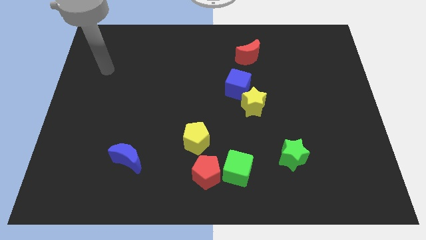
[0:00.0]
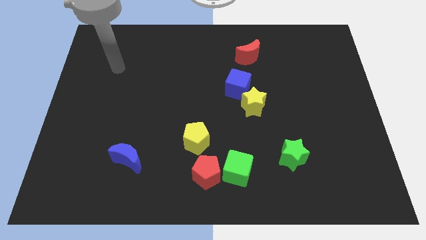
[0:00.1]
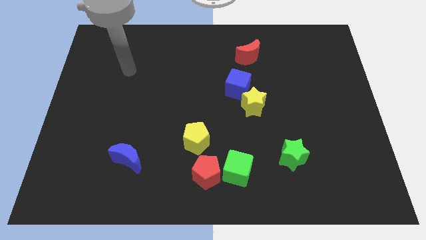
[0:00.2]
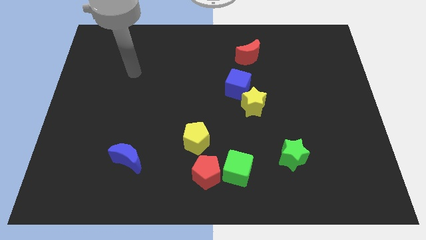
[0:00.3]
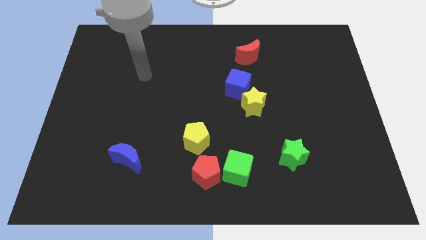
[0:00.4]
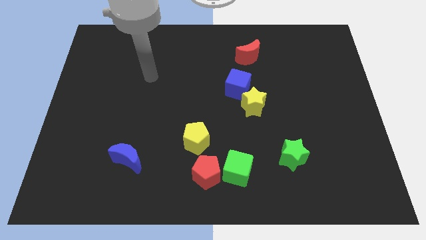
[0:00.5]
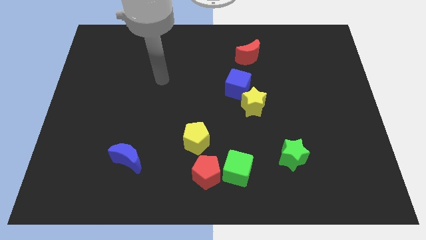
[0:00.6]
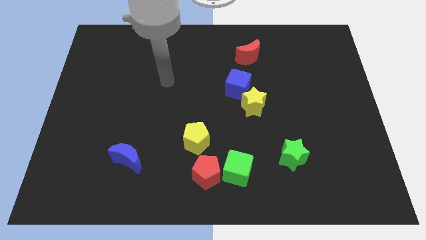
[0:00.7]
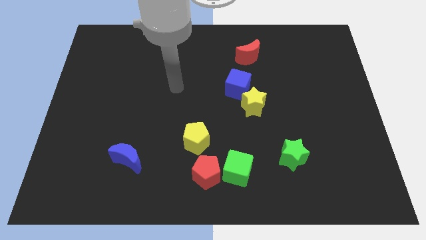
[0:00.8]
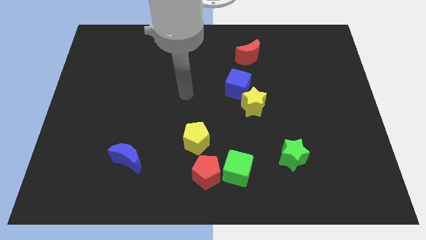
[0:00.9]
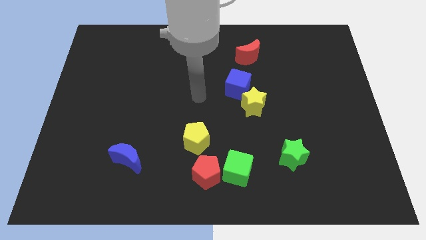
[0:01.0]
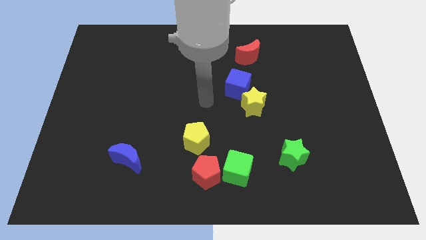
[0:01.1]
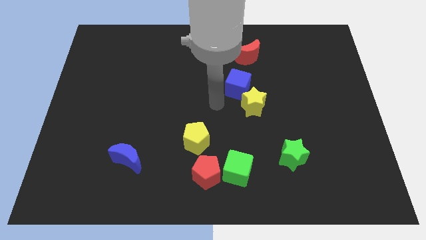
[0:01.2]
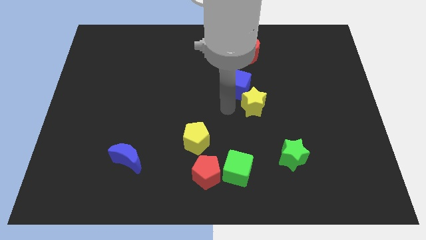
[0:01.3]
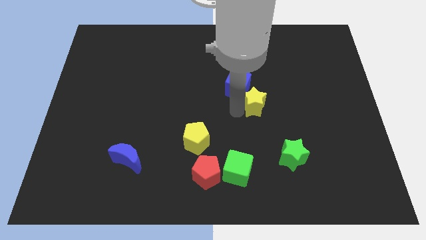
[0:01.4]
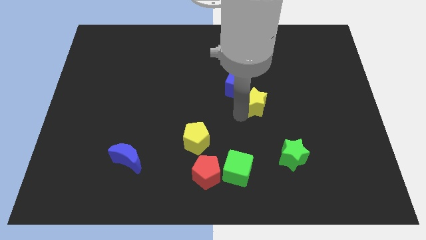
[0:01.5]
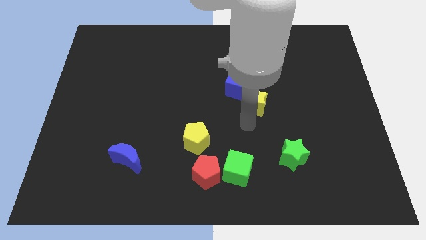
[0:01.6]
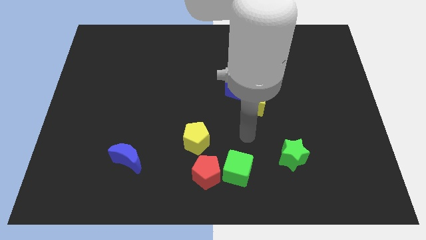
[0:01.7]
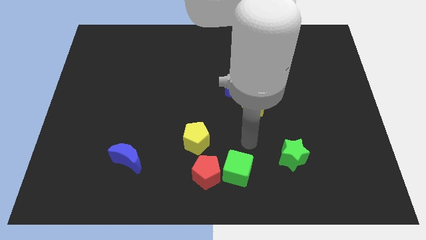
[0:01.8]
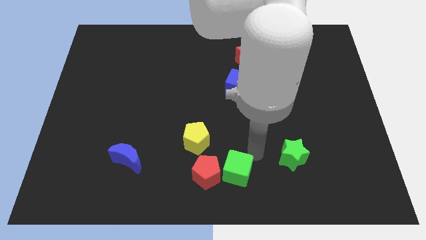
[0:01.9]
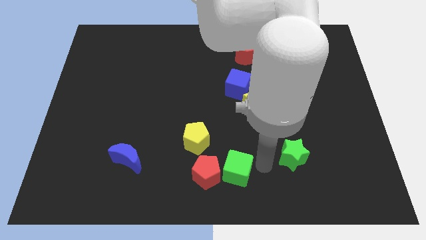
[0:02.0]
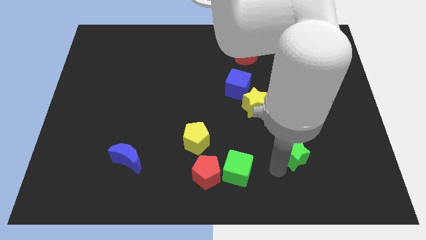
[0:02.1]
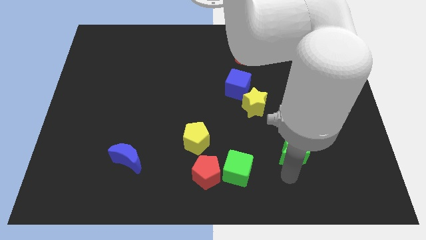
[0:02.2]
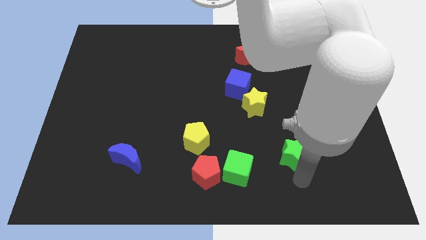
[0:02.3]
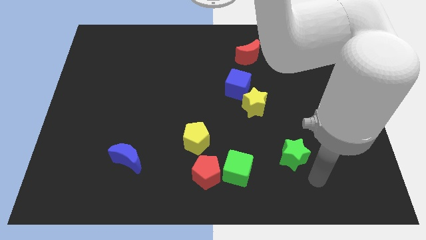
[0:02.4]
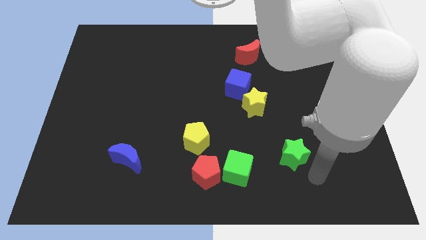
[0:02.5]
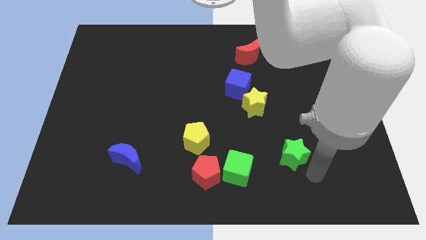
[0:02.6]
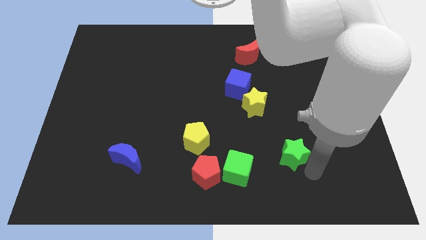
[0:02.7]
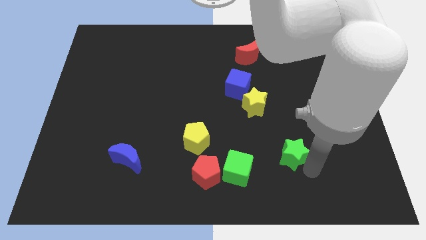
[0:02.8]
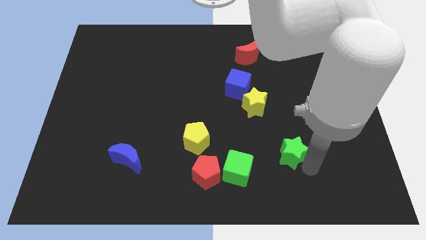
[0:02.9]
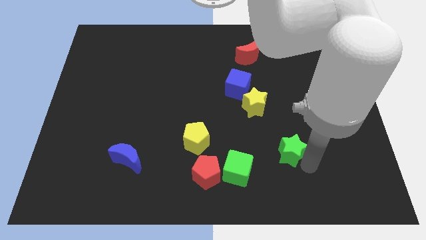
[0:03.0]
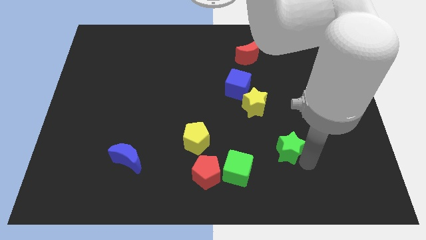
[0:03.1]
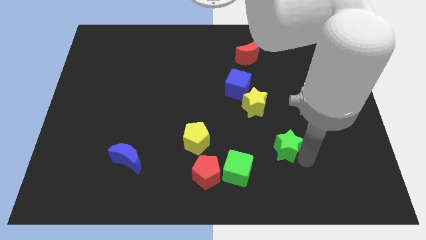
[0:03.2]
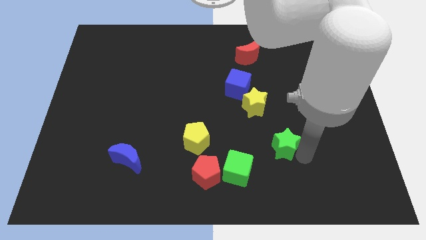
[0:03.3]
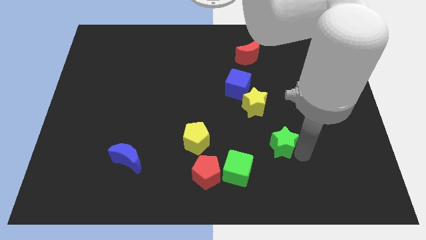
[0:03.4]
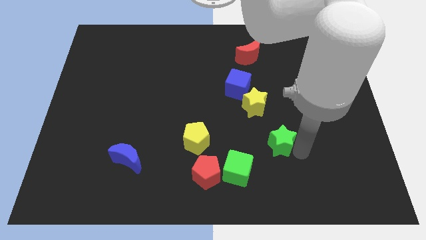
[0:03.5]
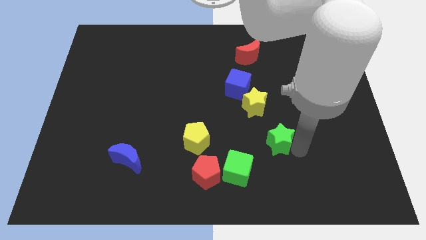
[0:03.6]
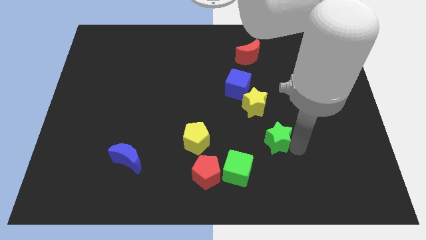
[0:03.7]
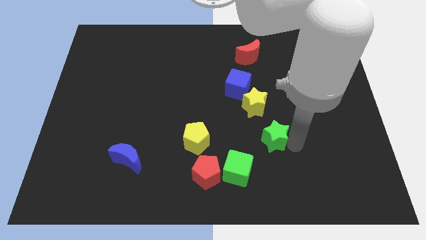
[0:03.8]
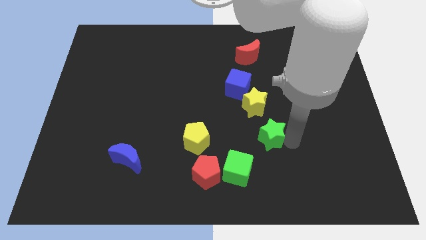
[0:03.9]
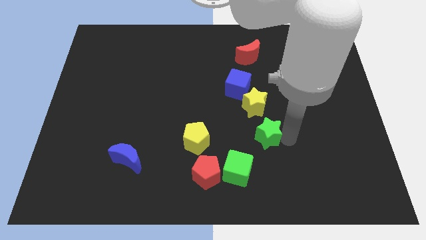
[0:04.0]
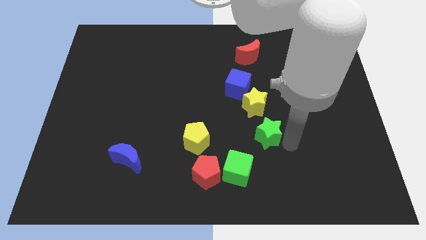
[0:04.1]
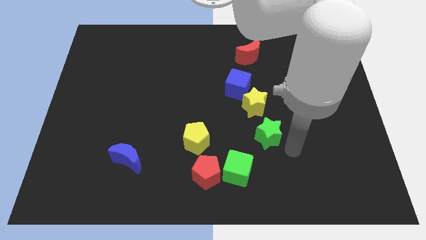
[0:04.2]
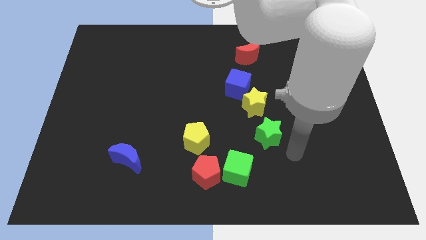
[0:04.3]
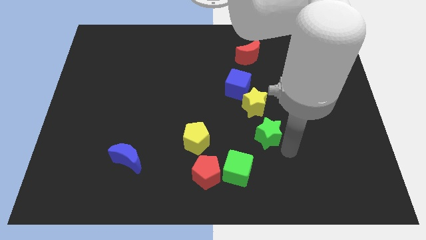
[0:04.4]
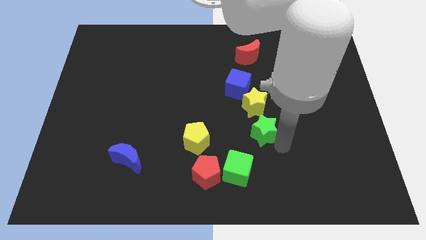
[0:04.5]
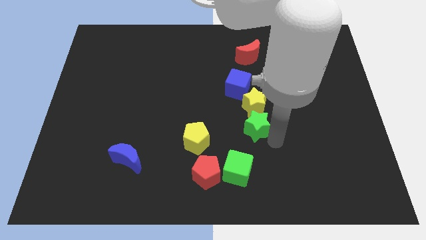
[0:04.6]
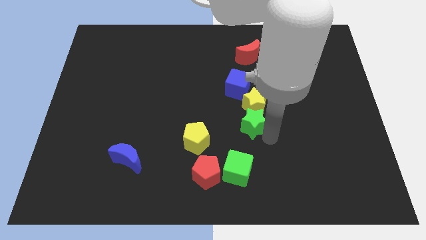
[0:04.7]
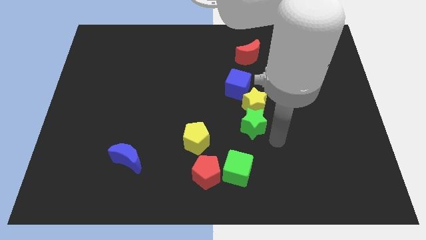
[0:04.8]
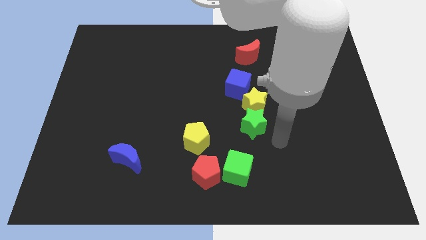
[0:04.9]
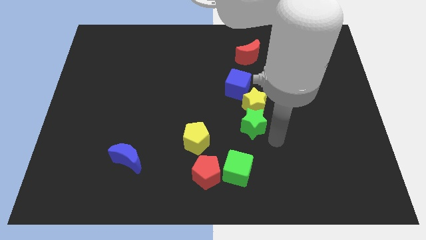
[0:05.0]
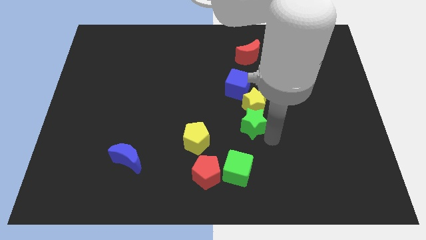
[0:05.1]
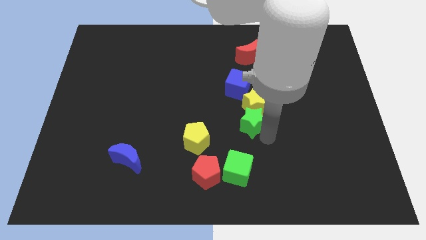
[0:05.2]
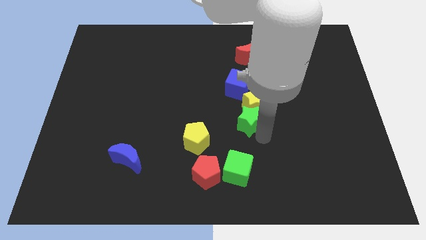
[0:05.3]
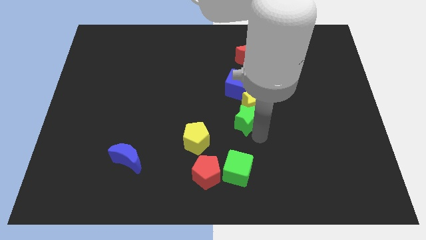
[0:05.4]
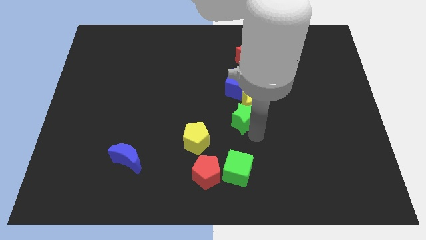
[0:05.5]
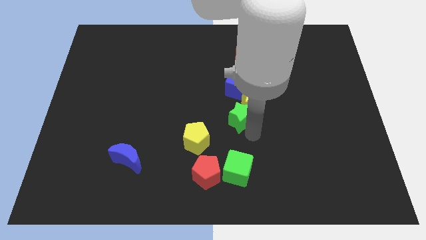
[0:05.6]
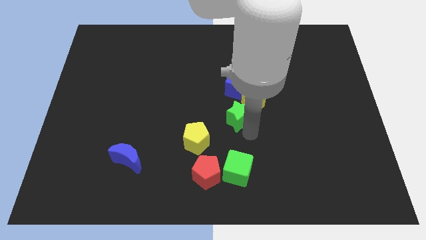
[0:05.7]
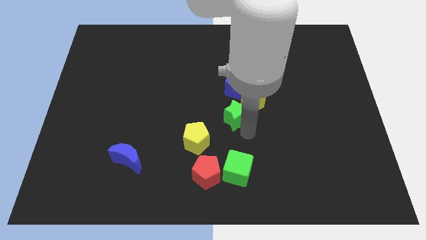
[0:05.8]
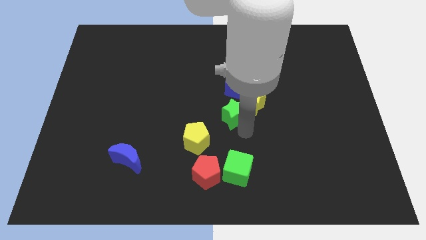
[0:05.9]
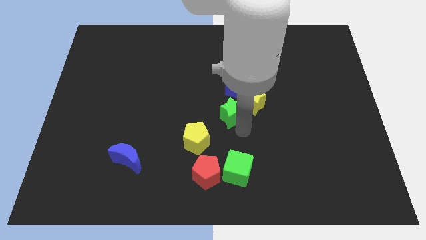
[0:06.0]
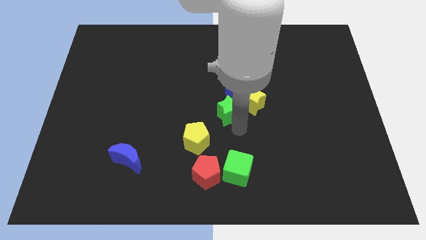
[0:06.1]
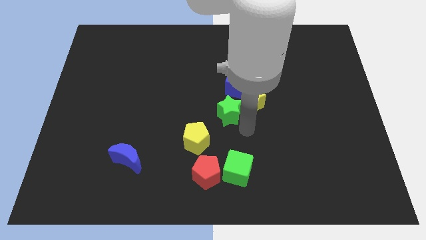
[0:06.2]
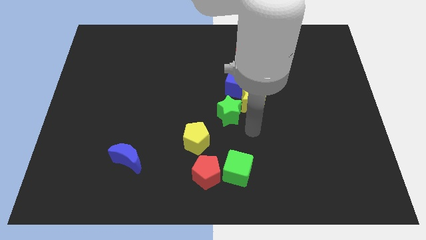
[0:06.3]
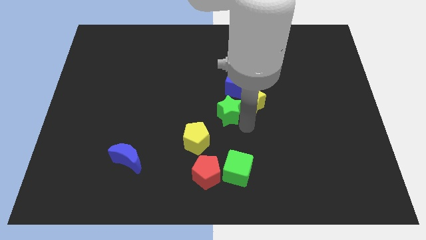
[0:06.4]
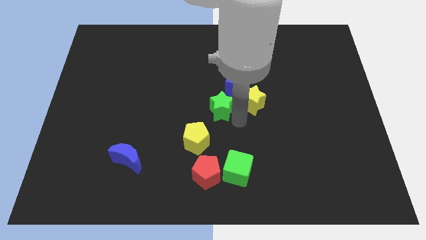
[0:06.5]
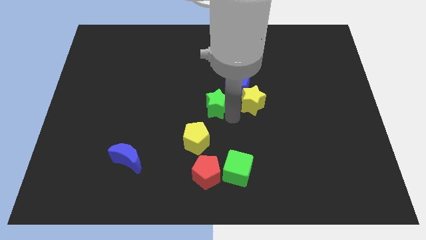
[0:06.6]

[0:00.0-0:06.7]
push the green star up and left

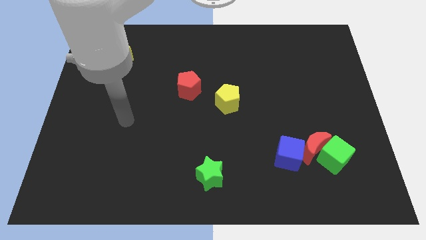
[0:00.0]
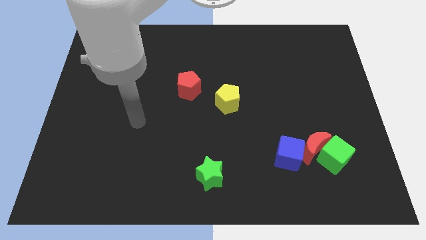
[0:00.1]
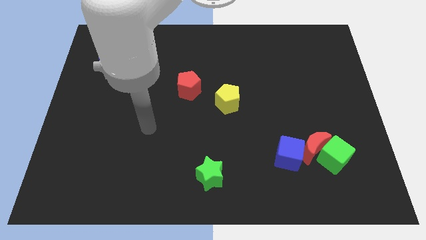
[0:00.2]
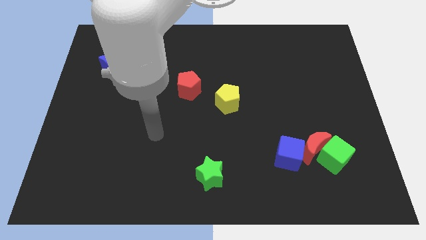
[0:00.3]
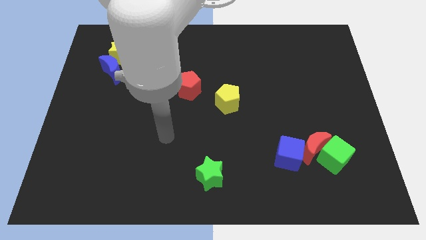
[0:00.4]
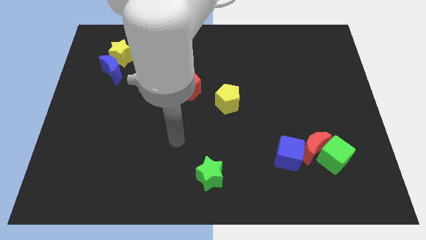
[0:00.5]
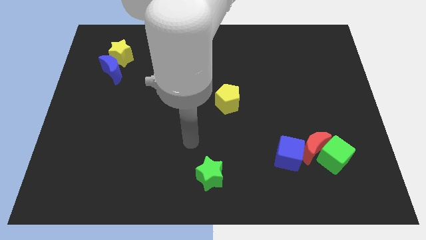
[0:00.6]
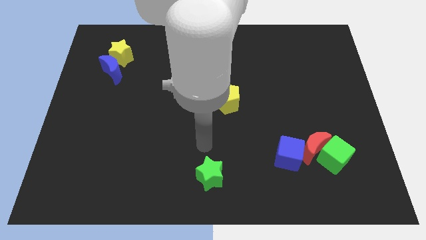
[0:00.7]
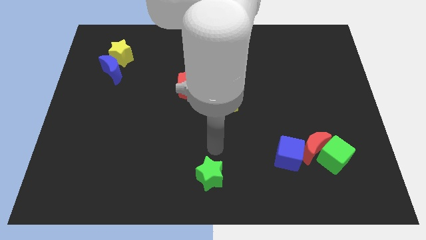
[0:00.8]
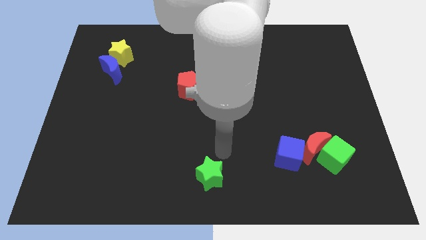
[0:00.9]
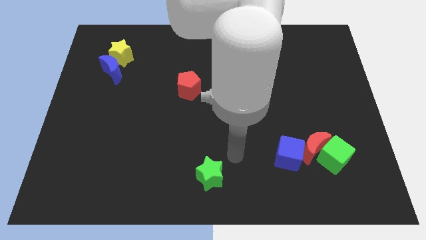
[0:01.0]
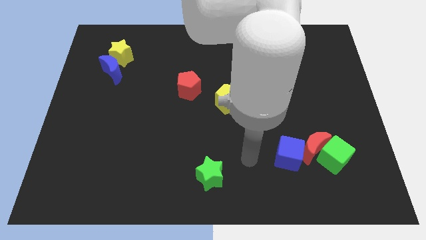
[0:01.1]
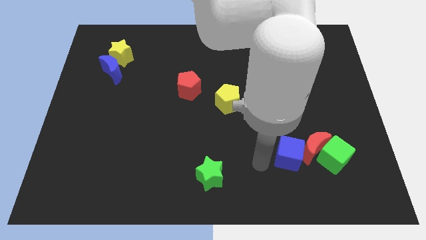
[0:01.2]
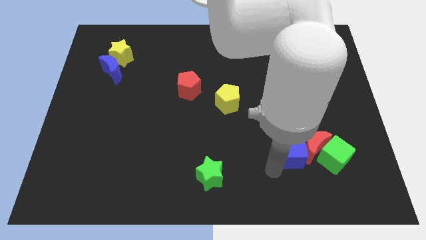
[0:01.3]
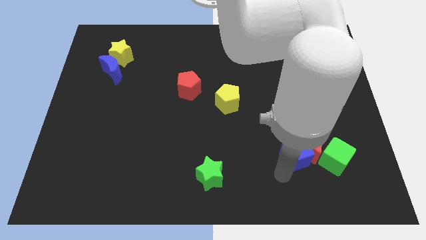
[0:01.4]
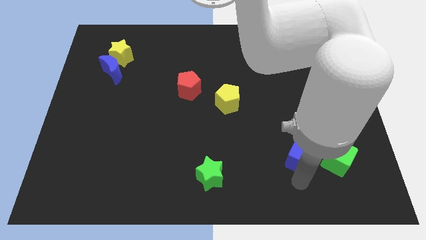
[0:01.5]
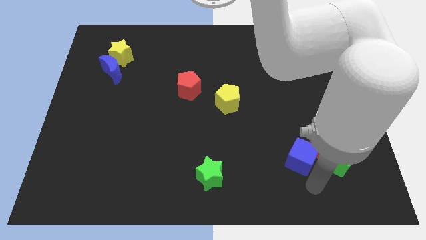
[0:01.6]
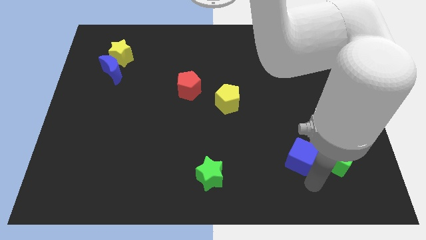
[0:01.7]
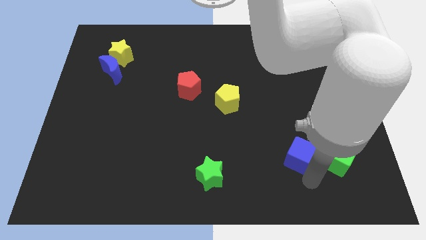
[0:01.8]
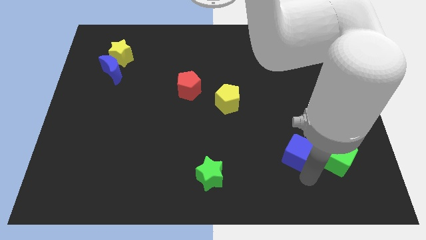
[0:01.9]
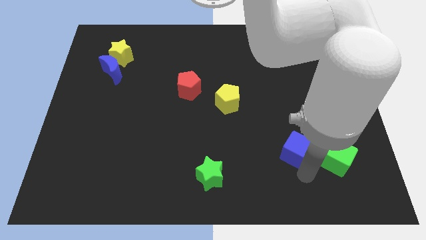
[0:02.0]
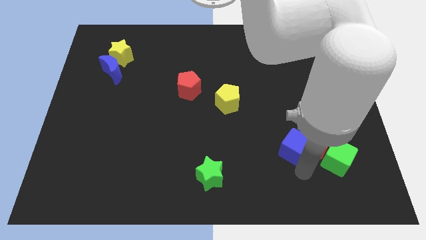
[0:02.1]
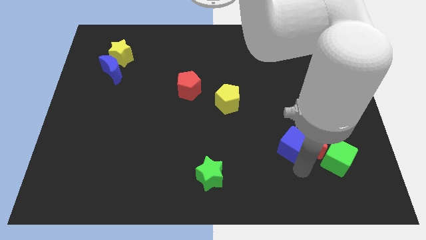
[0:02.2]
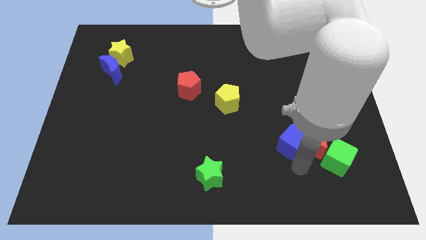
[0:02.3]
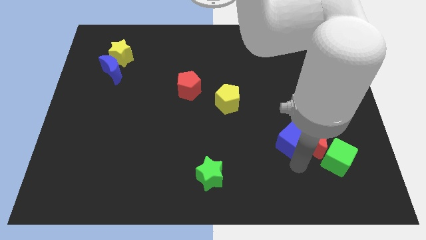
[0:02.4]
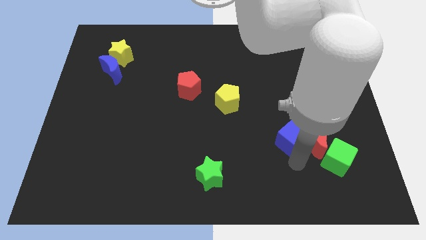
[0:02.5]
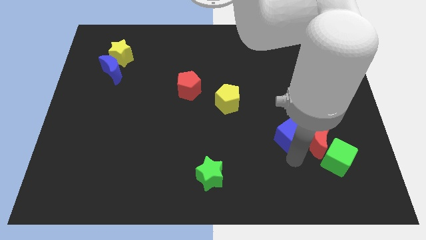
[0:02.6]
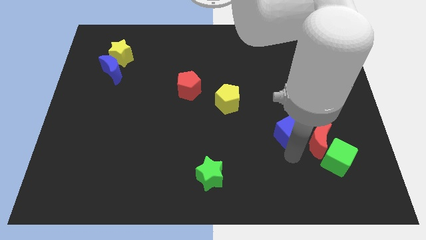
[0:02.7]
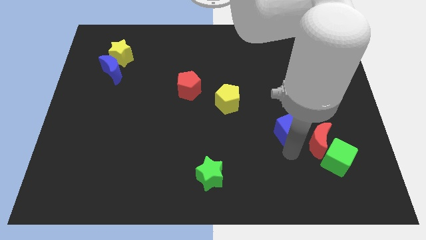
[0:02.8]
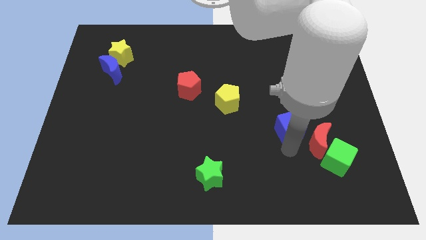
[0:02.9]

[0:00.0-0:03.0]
slide the blue cube upwards a little
